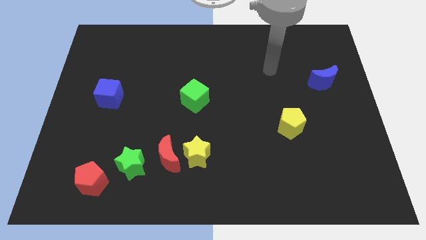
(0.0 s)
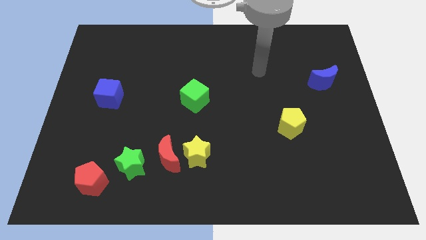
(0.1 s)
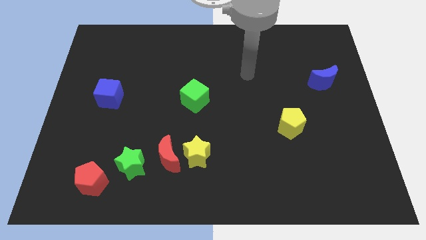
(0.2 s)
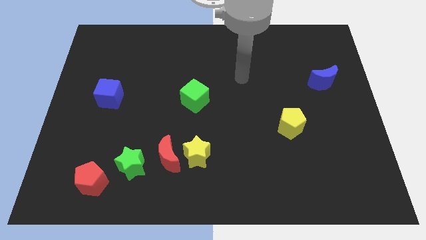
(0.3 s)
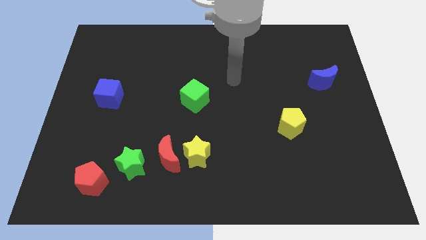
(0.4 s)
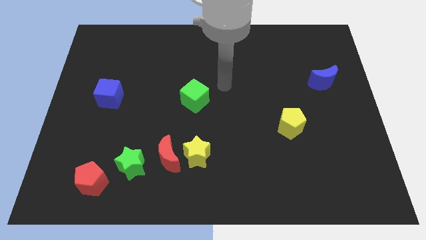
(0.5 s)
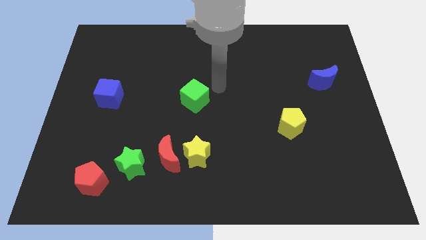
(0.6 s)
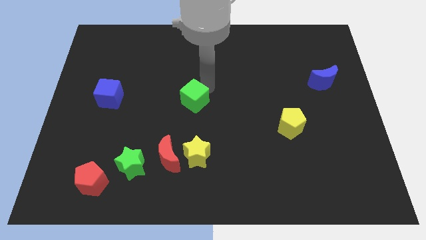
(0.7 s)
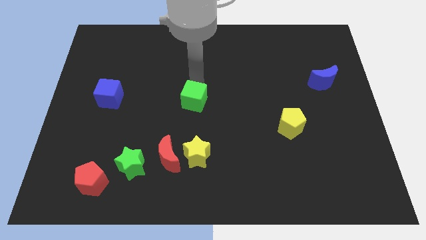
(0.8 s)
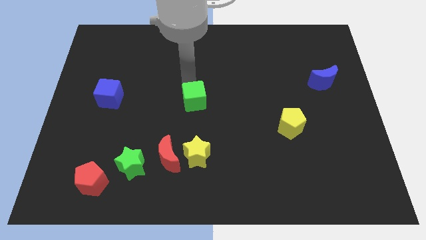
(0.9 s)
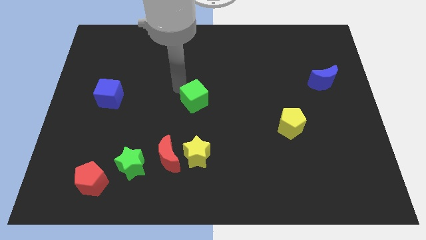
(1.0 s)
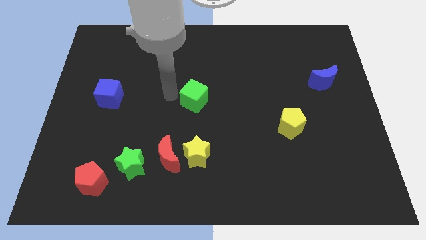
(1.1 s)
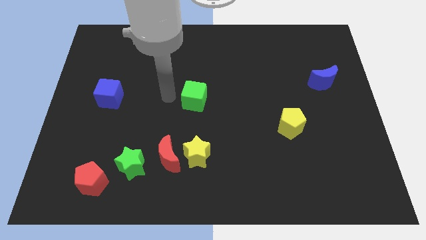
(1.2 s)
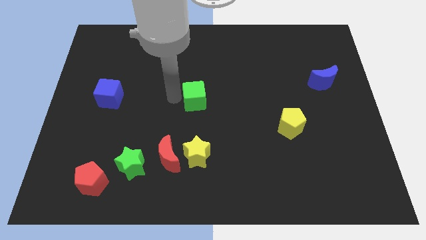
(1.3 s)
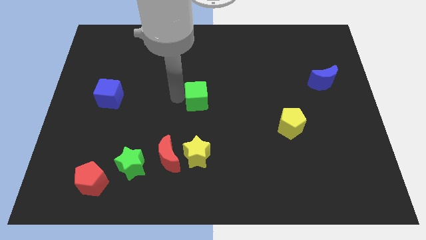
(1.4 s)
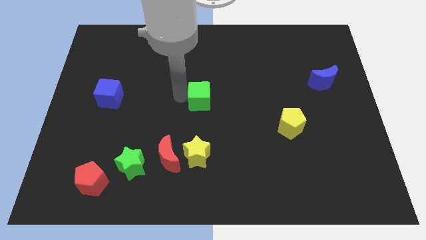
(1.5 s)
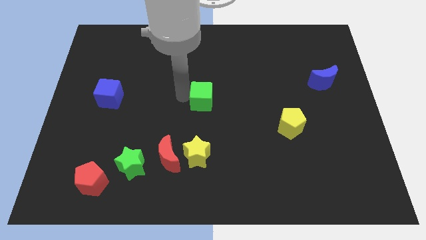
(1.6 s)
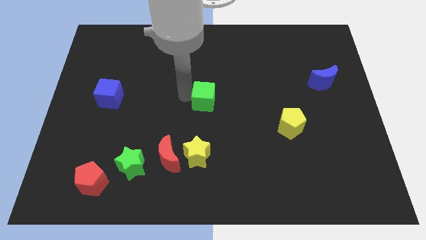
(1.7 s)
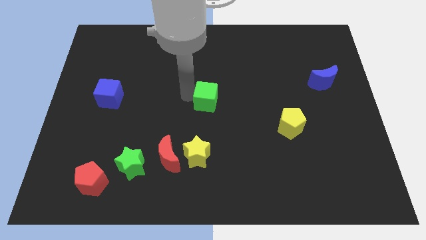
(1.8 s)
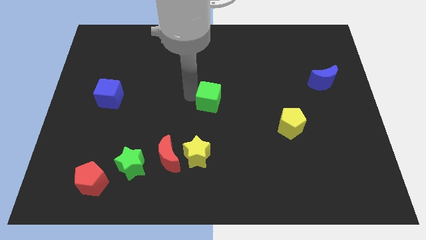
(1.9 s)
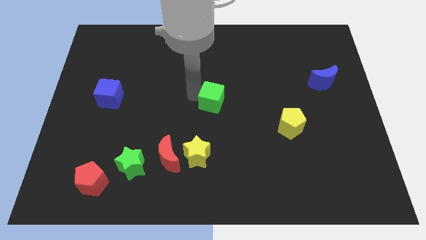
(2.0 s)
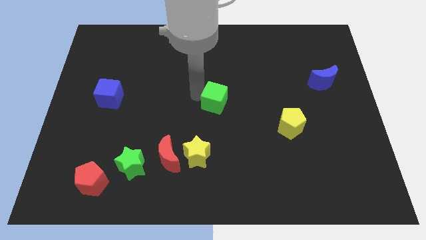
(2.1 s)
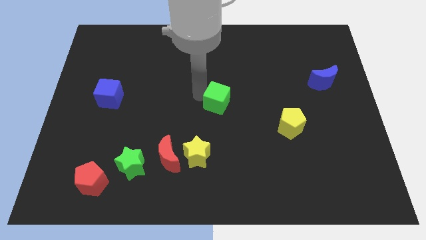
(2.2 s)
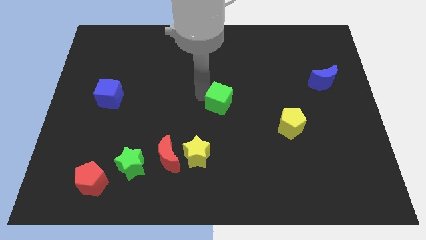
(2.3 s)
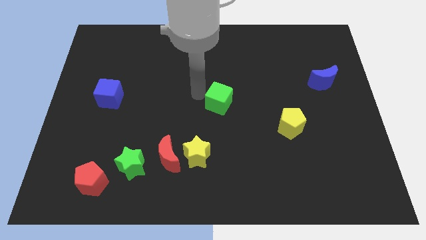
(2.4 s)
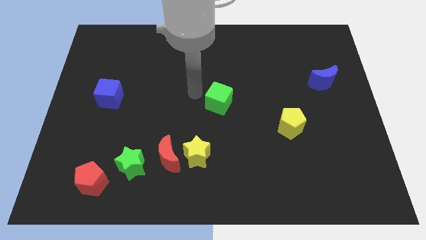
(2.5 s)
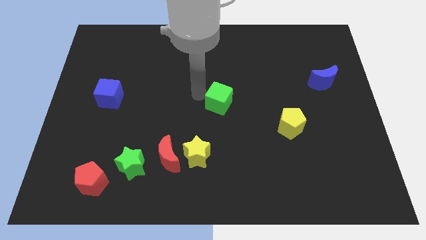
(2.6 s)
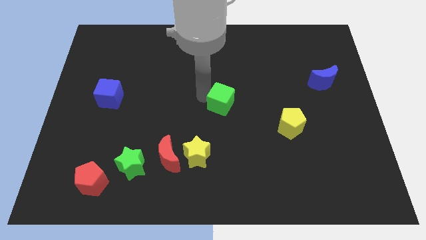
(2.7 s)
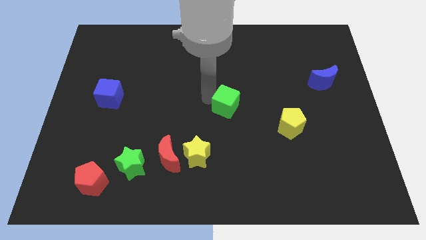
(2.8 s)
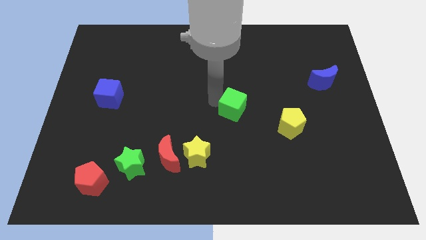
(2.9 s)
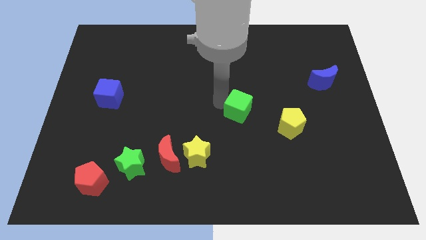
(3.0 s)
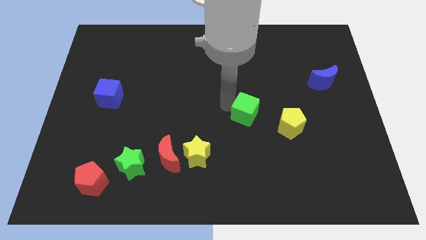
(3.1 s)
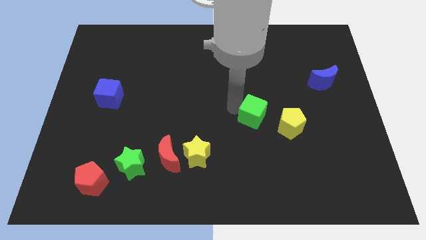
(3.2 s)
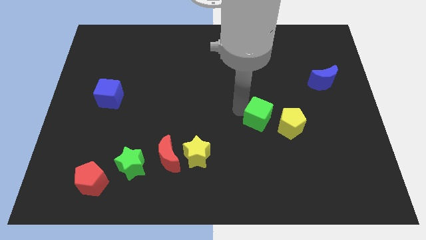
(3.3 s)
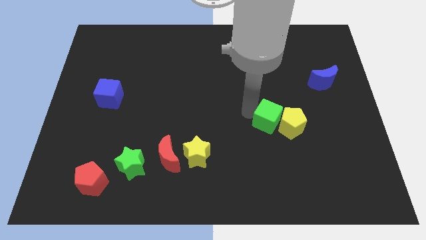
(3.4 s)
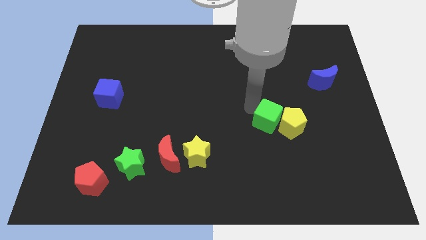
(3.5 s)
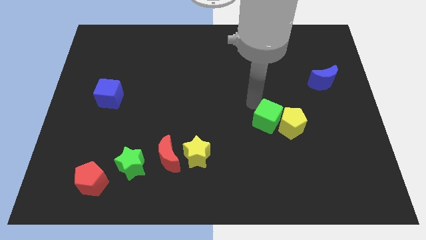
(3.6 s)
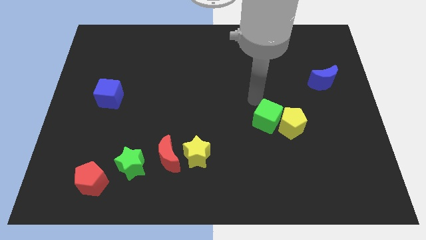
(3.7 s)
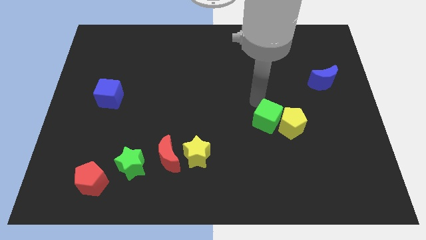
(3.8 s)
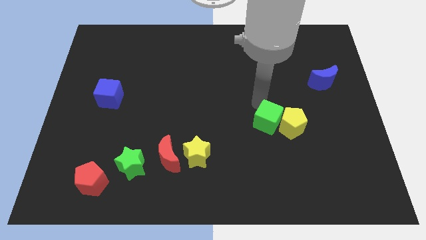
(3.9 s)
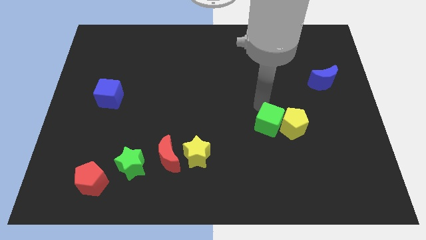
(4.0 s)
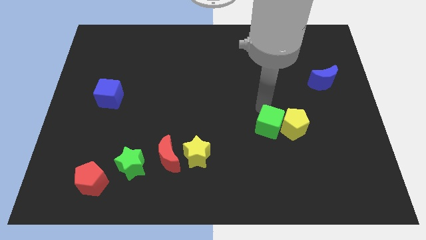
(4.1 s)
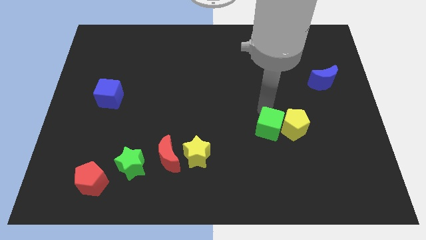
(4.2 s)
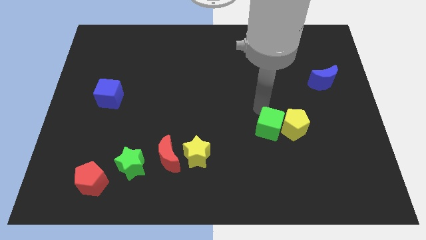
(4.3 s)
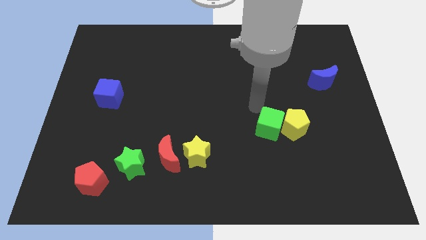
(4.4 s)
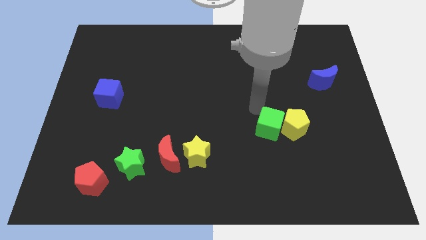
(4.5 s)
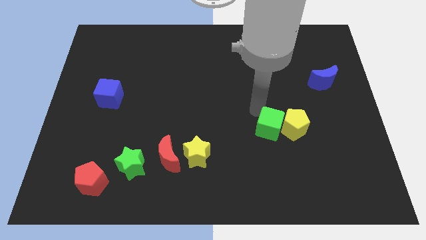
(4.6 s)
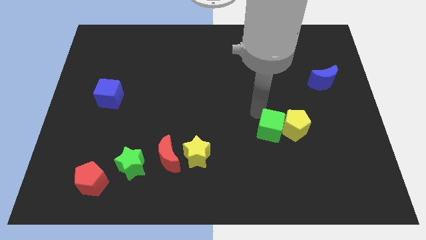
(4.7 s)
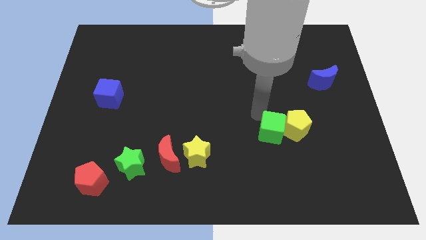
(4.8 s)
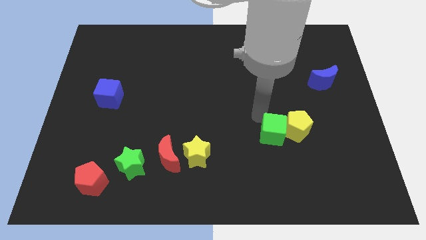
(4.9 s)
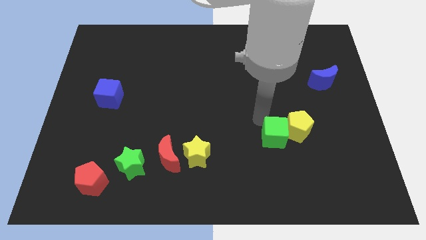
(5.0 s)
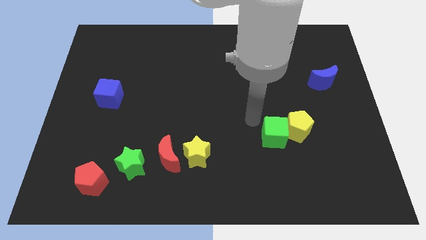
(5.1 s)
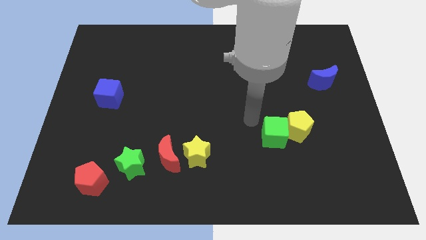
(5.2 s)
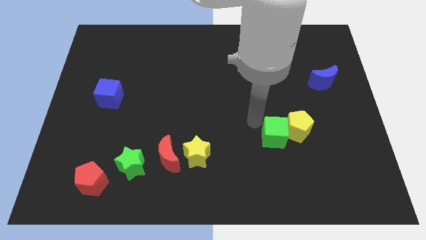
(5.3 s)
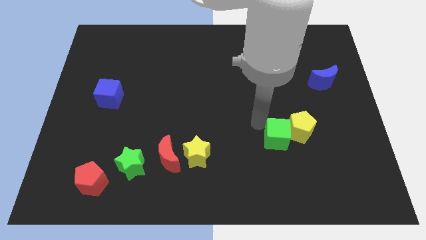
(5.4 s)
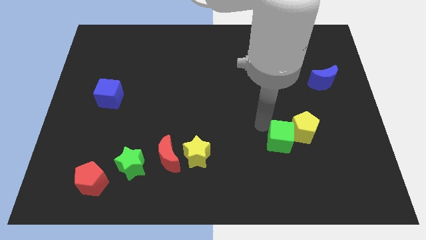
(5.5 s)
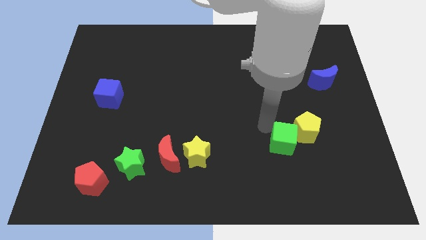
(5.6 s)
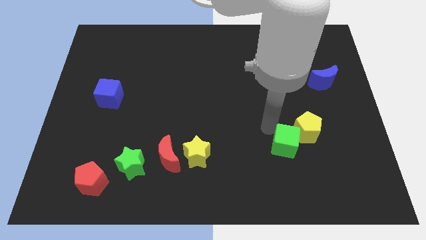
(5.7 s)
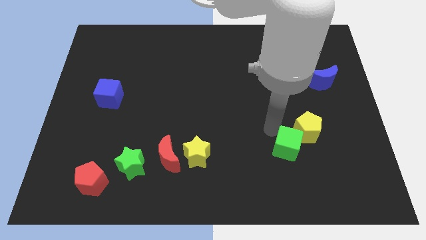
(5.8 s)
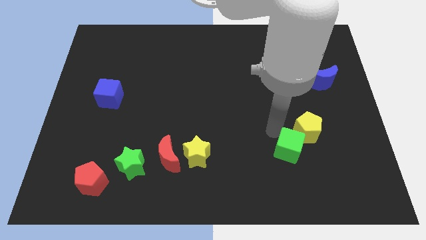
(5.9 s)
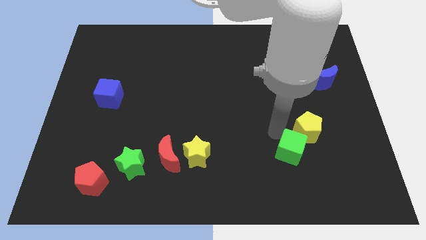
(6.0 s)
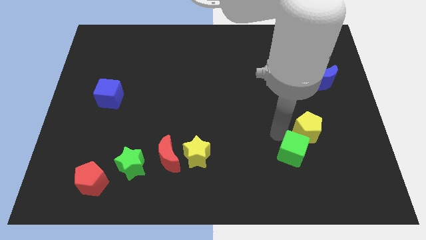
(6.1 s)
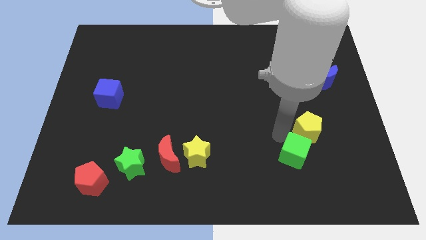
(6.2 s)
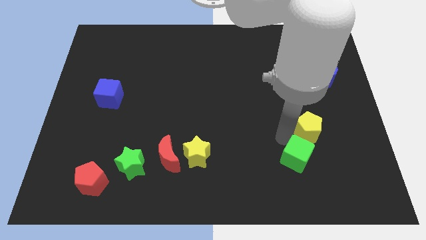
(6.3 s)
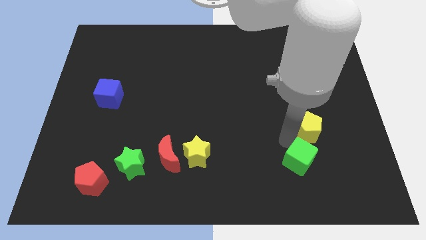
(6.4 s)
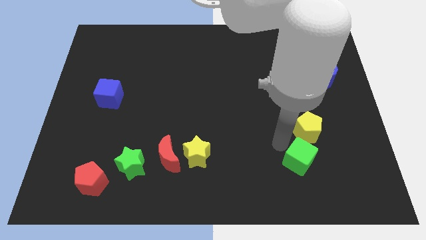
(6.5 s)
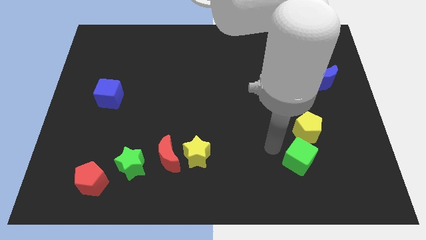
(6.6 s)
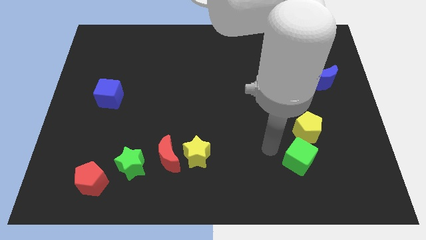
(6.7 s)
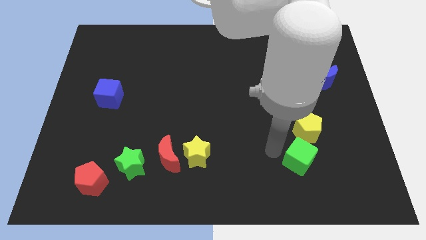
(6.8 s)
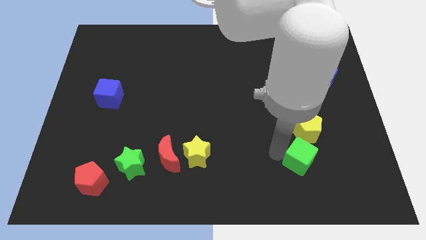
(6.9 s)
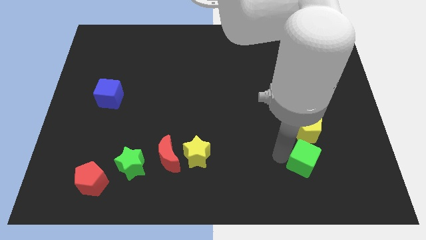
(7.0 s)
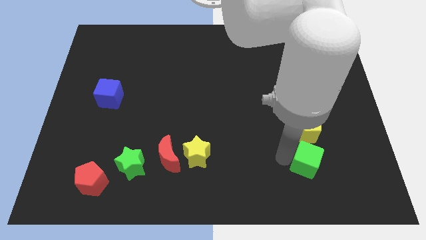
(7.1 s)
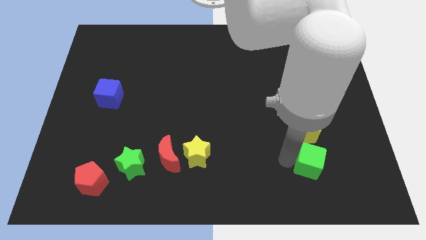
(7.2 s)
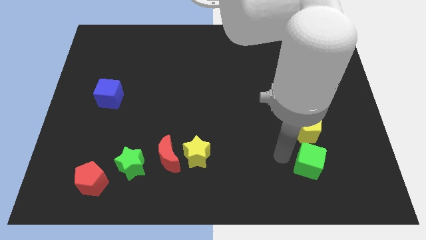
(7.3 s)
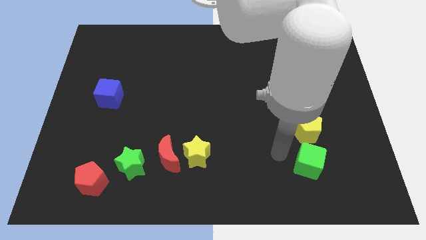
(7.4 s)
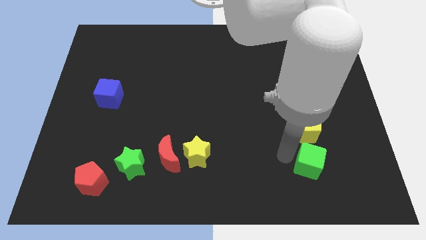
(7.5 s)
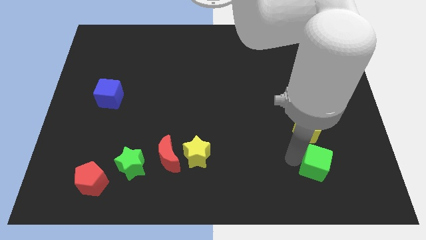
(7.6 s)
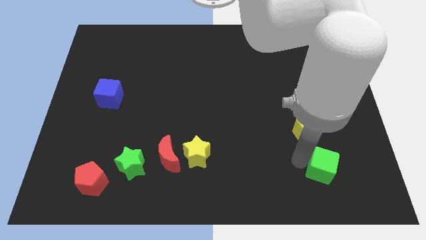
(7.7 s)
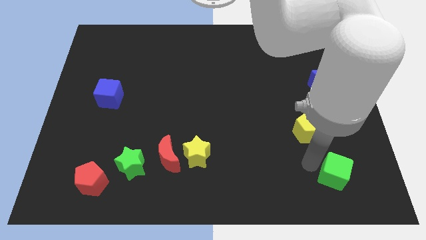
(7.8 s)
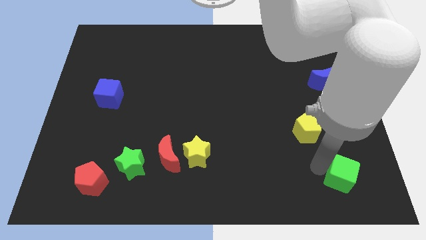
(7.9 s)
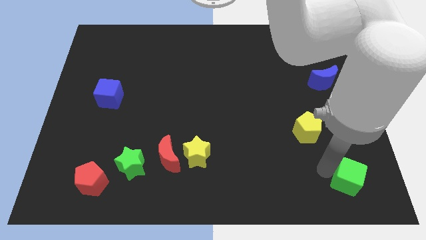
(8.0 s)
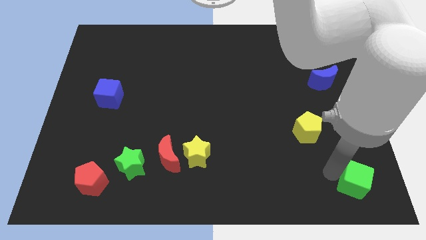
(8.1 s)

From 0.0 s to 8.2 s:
move the green cube to the bottom right
